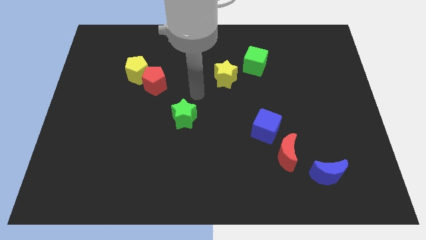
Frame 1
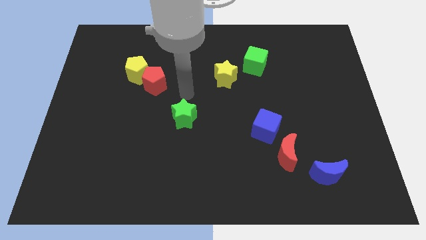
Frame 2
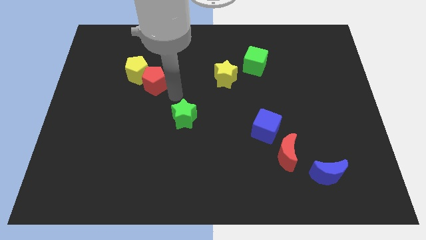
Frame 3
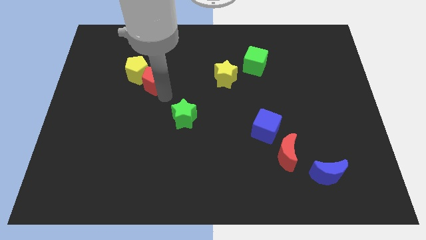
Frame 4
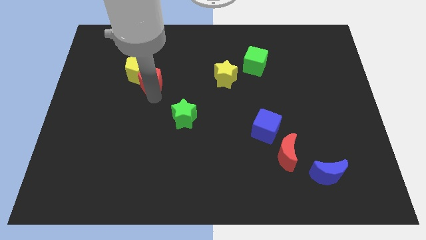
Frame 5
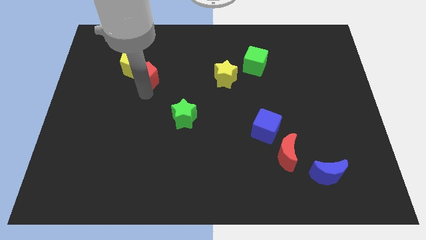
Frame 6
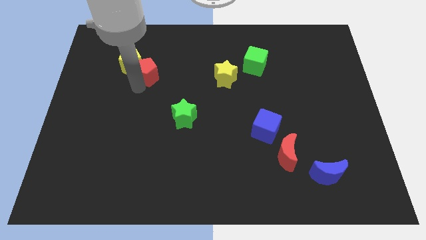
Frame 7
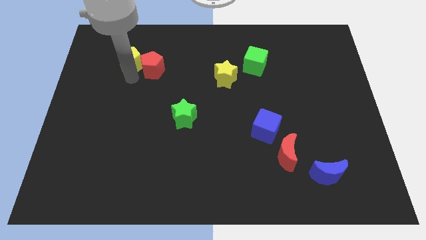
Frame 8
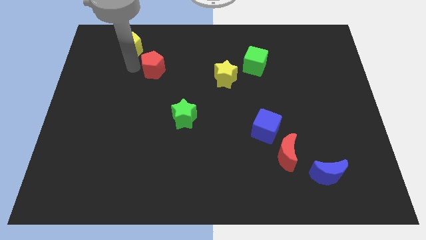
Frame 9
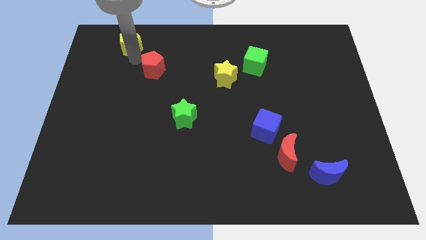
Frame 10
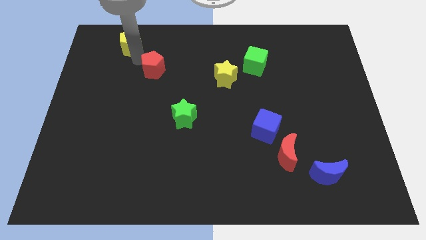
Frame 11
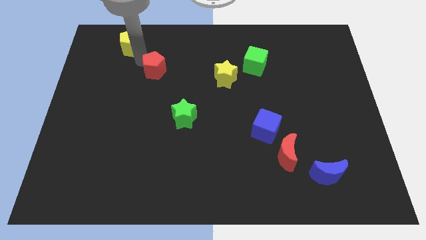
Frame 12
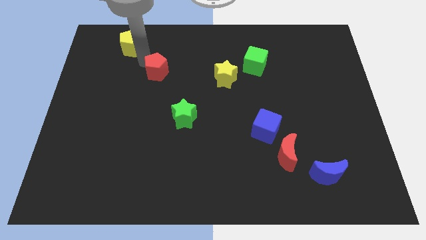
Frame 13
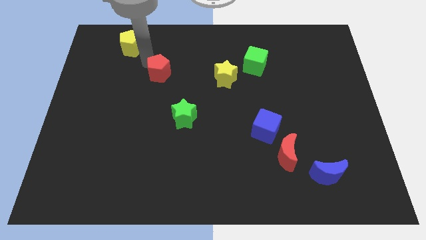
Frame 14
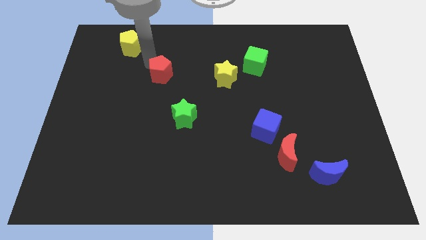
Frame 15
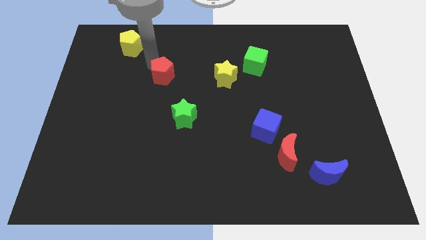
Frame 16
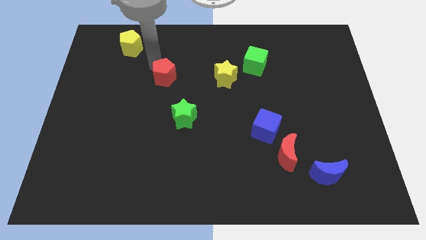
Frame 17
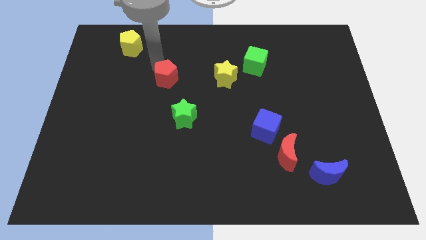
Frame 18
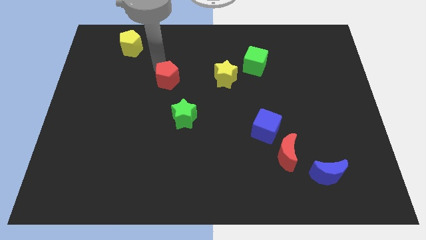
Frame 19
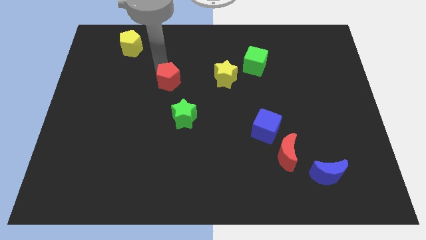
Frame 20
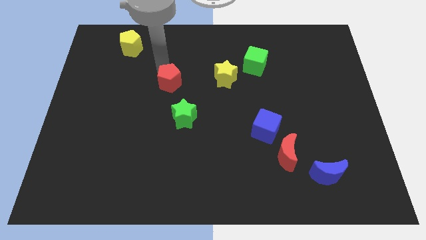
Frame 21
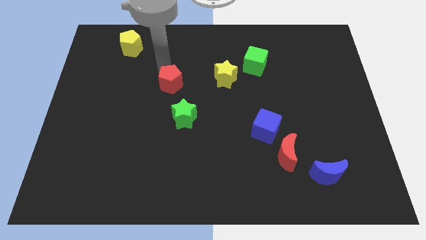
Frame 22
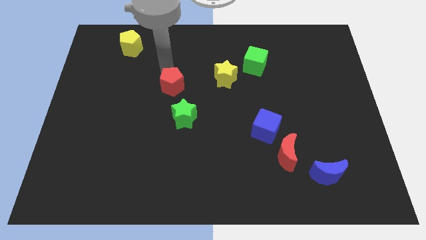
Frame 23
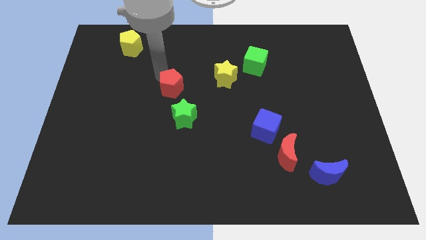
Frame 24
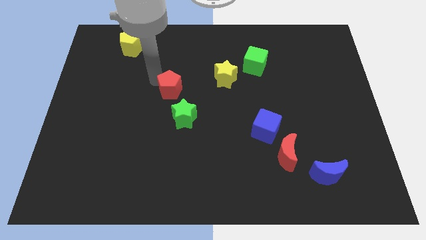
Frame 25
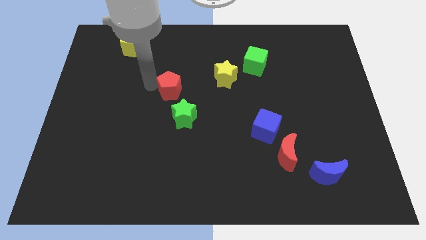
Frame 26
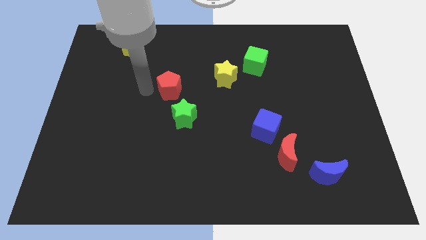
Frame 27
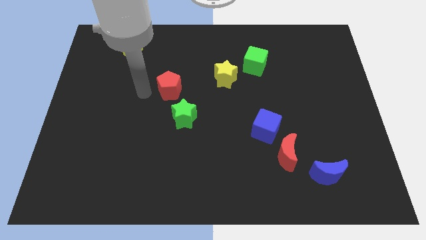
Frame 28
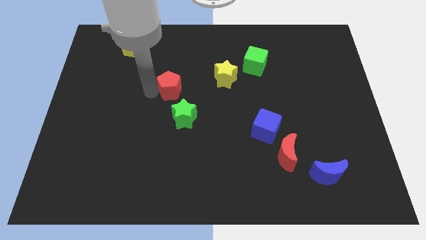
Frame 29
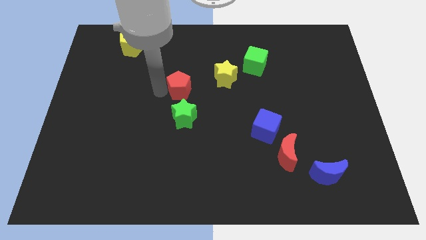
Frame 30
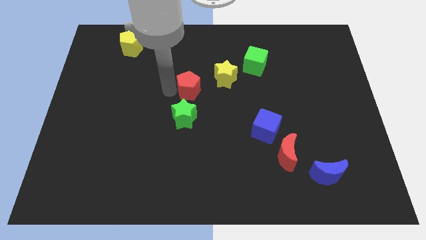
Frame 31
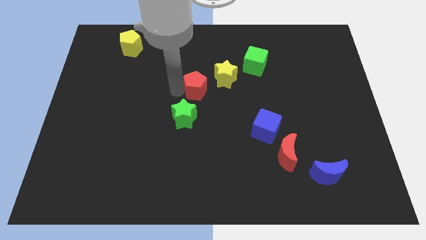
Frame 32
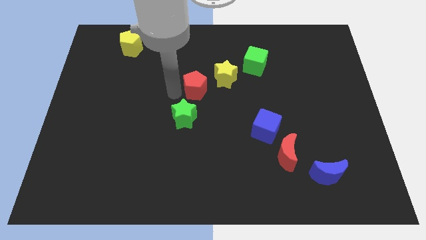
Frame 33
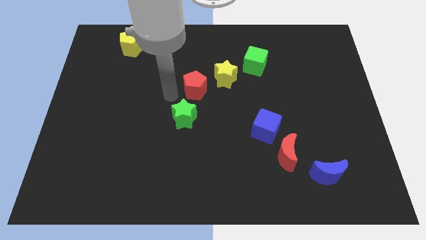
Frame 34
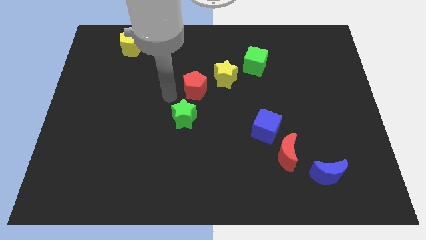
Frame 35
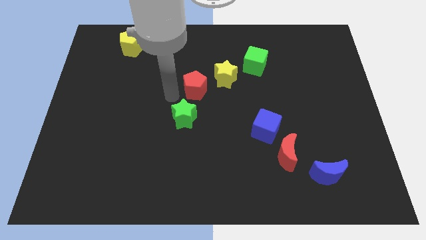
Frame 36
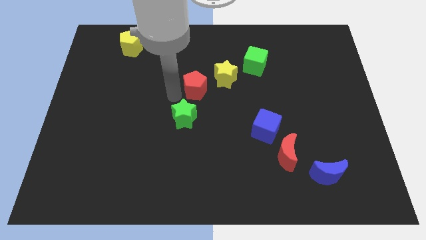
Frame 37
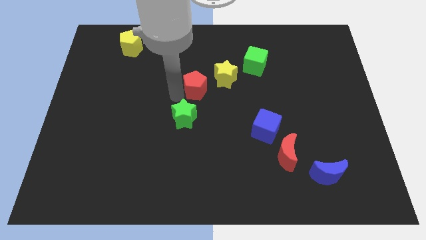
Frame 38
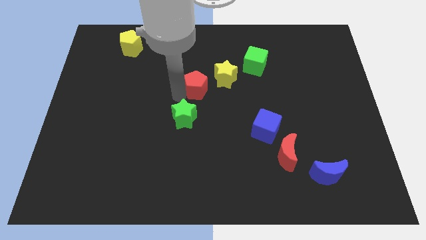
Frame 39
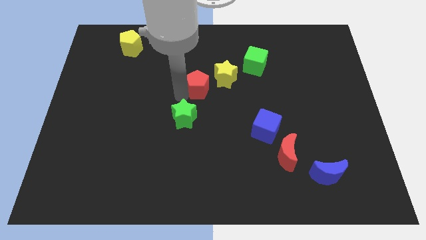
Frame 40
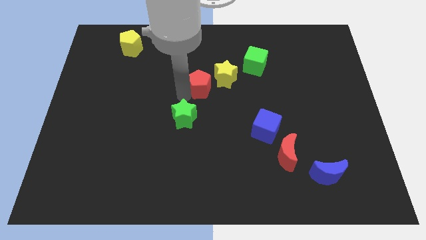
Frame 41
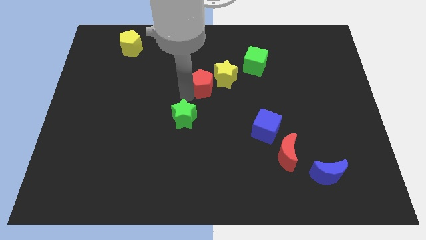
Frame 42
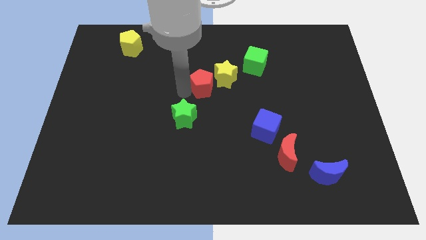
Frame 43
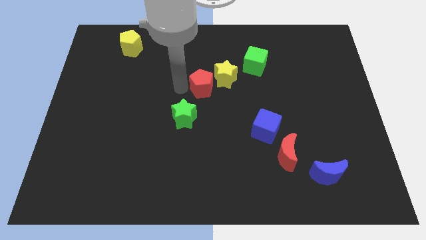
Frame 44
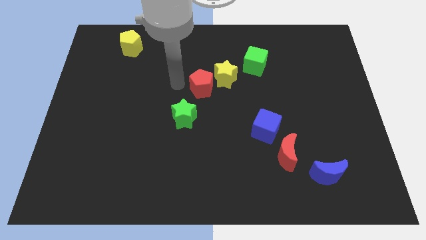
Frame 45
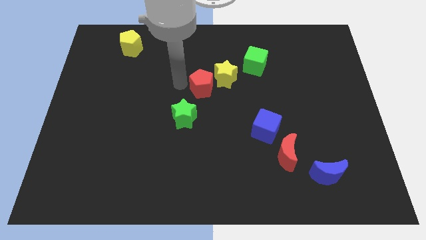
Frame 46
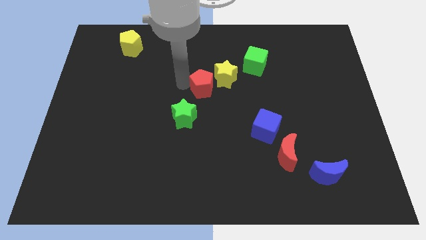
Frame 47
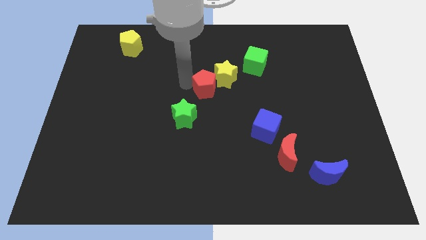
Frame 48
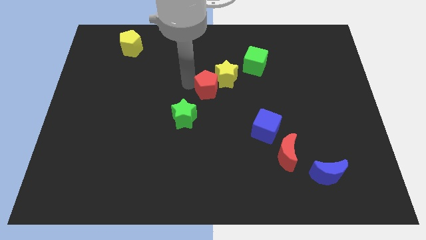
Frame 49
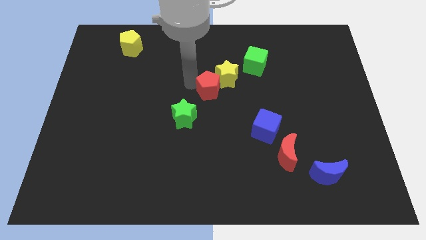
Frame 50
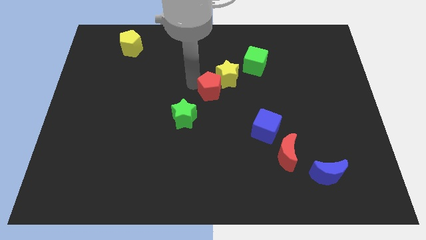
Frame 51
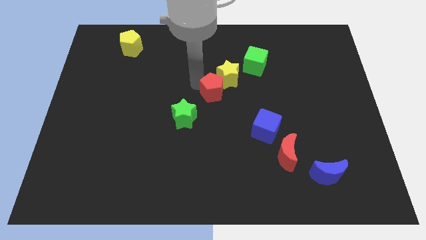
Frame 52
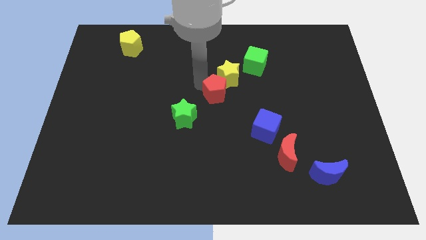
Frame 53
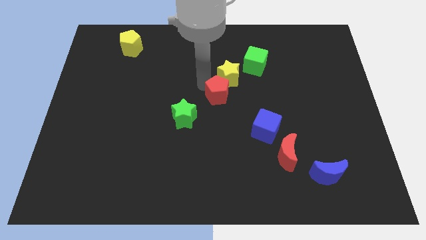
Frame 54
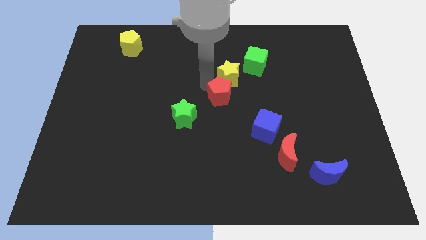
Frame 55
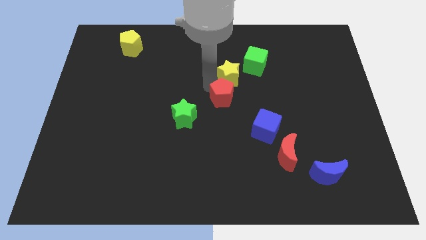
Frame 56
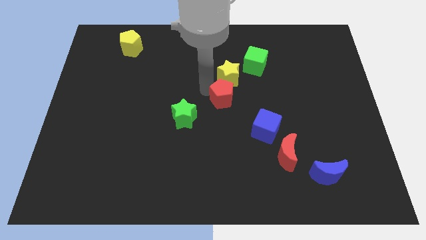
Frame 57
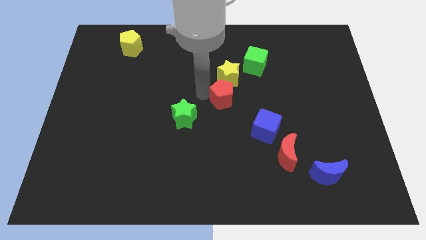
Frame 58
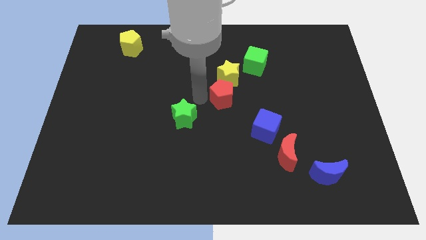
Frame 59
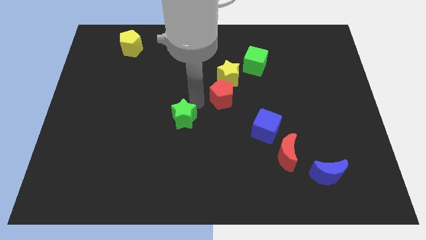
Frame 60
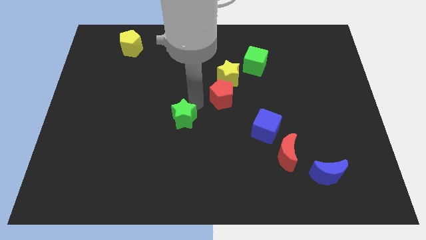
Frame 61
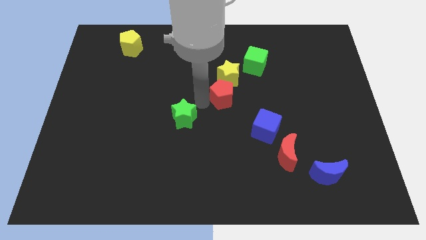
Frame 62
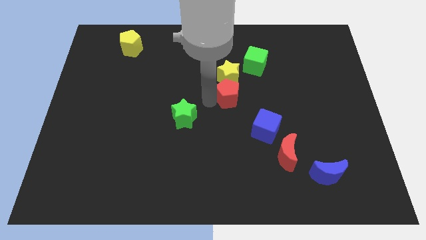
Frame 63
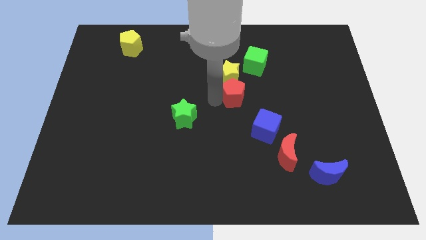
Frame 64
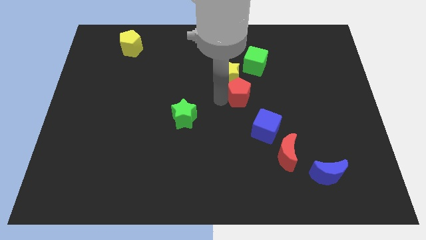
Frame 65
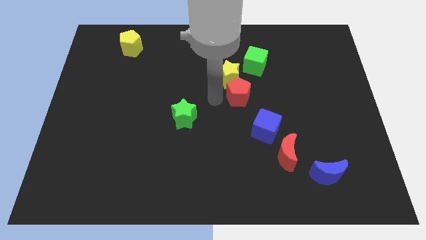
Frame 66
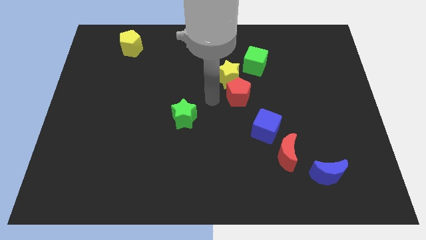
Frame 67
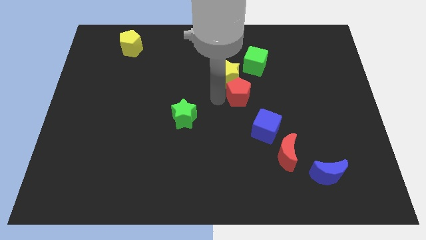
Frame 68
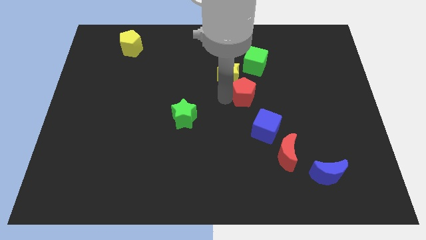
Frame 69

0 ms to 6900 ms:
put the red pentagon to the top of the blue cube
